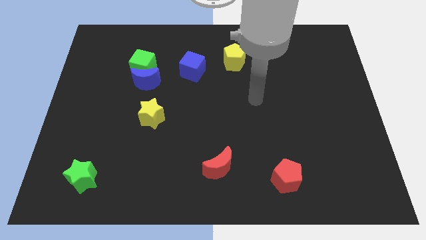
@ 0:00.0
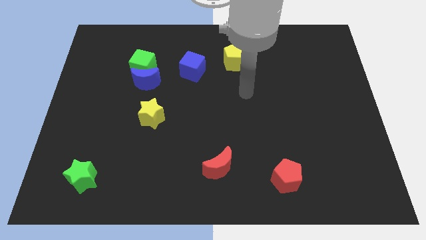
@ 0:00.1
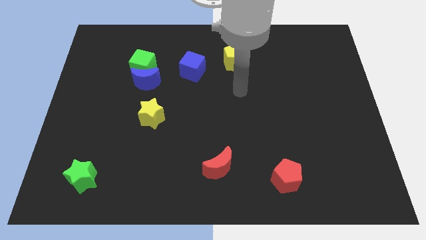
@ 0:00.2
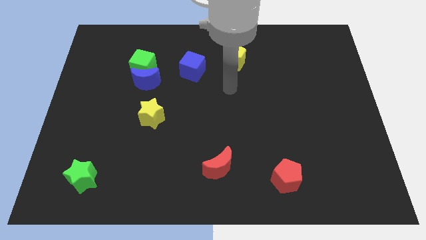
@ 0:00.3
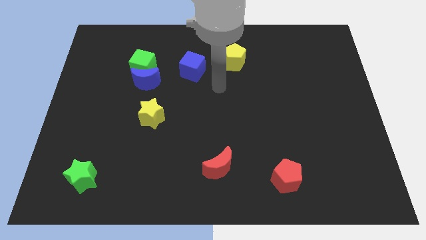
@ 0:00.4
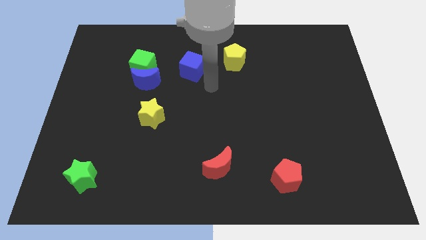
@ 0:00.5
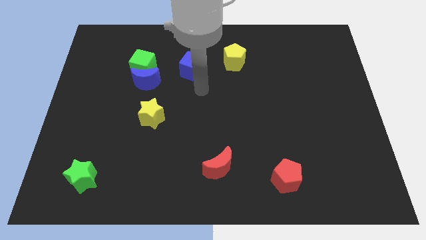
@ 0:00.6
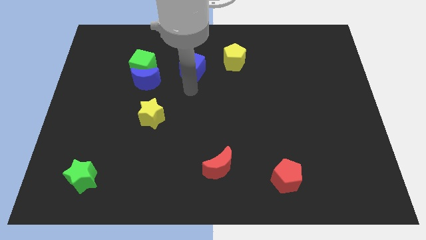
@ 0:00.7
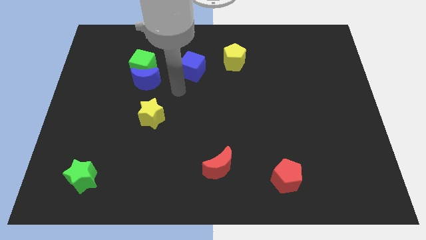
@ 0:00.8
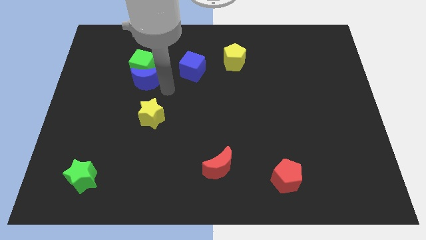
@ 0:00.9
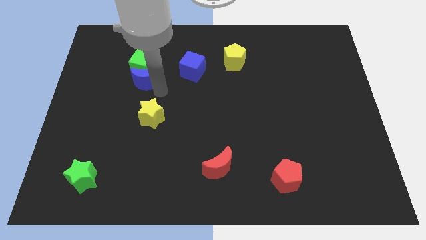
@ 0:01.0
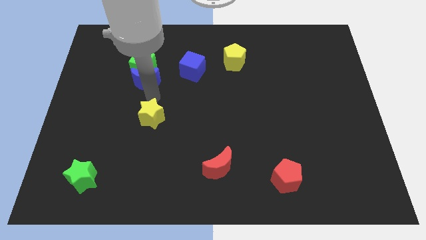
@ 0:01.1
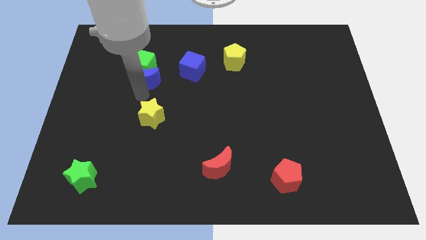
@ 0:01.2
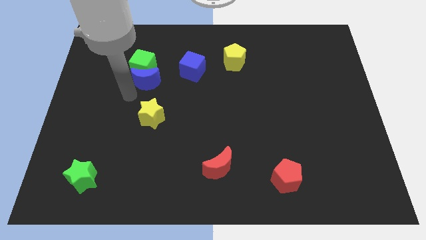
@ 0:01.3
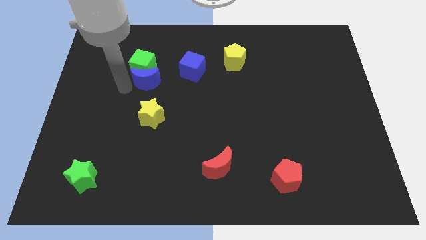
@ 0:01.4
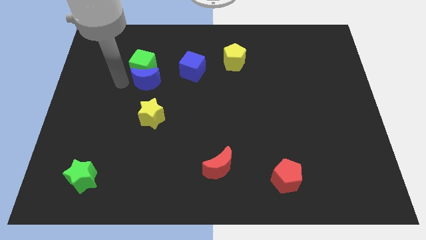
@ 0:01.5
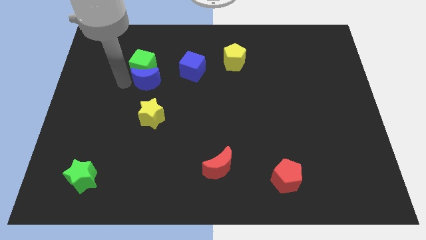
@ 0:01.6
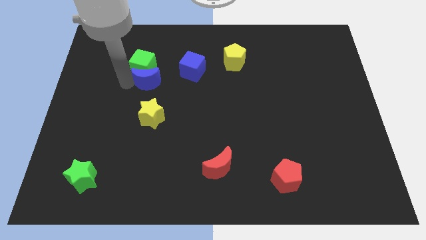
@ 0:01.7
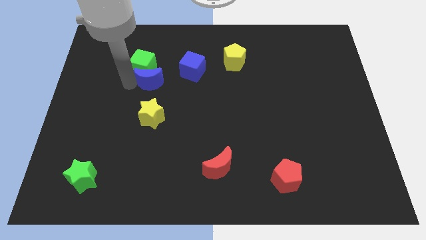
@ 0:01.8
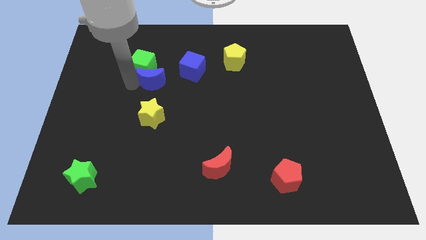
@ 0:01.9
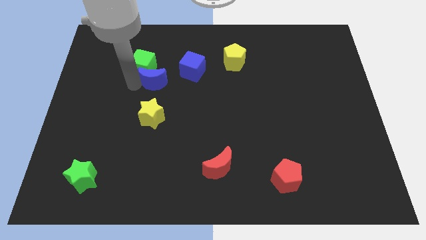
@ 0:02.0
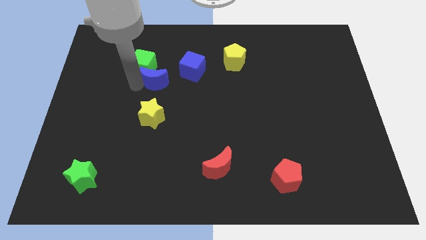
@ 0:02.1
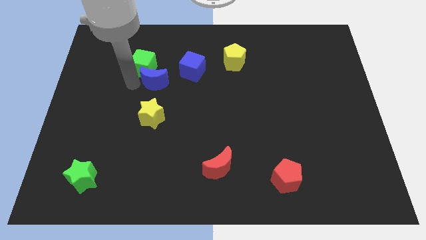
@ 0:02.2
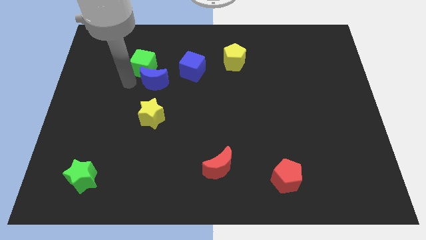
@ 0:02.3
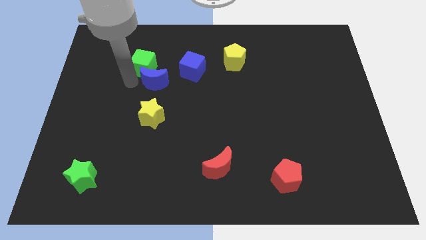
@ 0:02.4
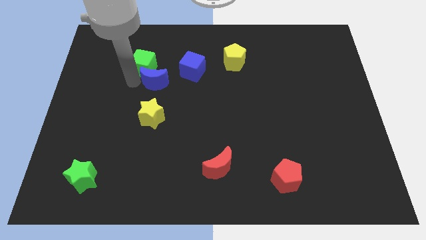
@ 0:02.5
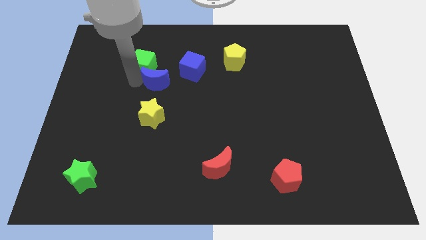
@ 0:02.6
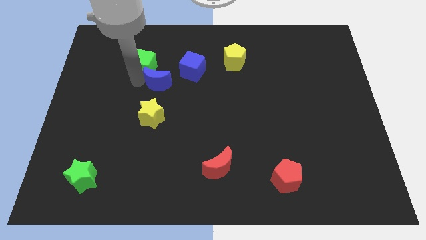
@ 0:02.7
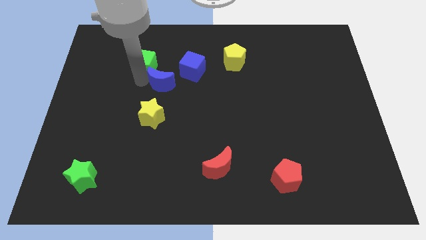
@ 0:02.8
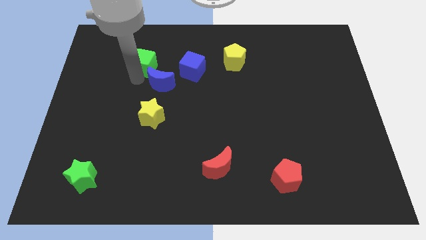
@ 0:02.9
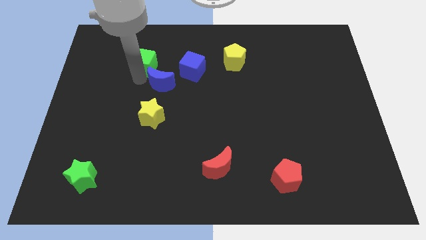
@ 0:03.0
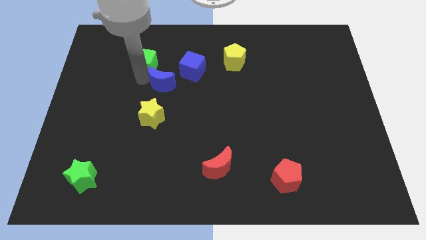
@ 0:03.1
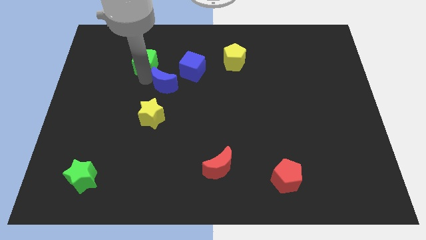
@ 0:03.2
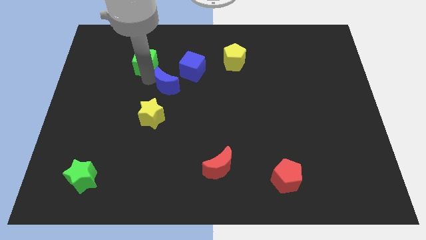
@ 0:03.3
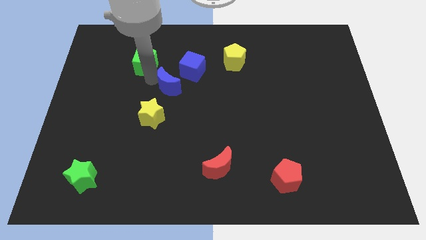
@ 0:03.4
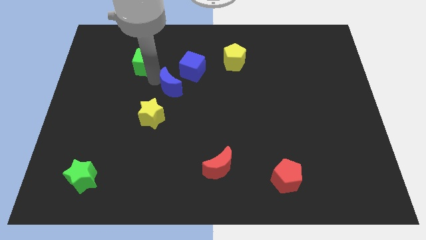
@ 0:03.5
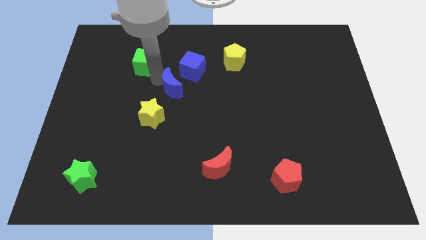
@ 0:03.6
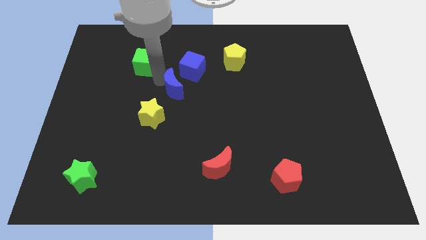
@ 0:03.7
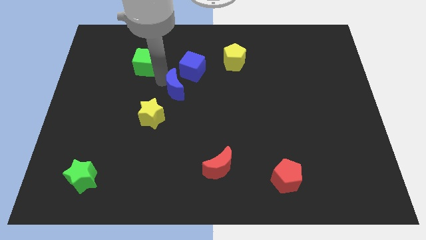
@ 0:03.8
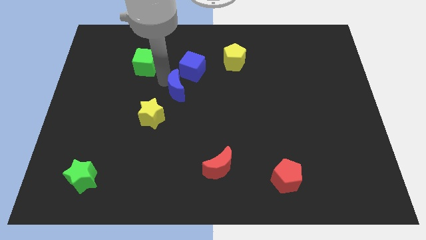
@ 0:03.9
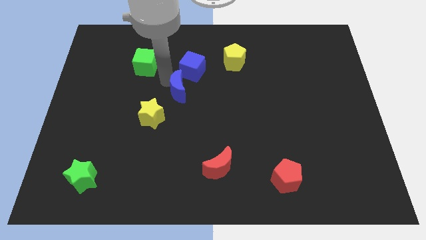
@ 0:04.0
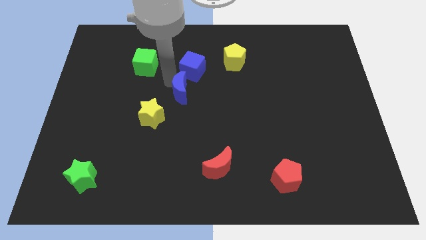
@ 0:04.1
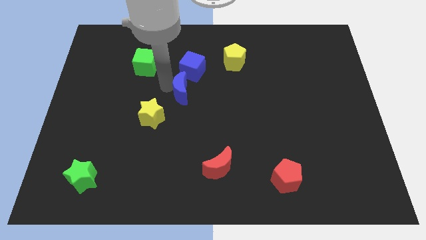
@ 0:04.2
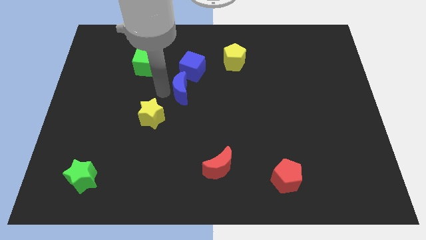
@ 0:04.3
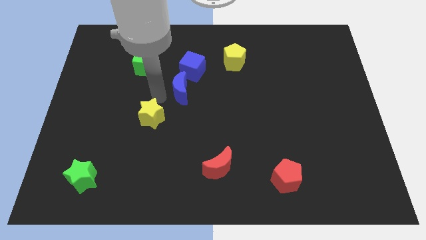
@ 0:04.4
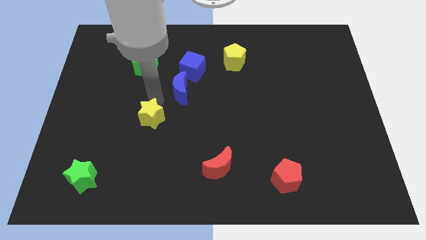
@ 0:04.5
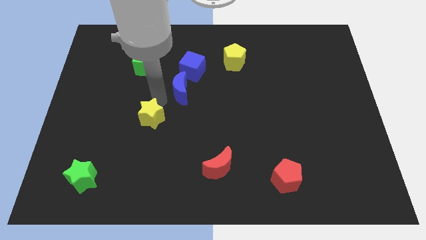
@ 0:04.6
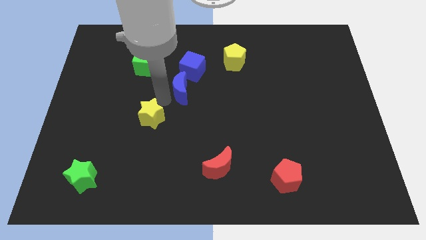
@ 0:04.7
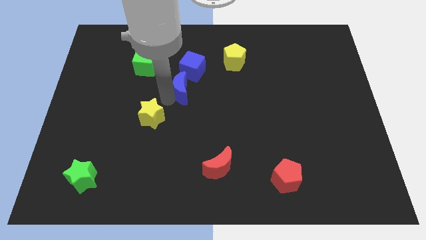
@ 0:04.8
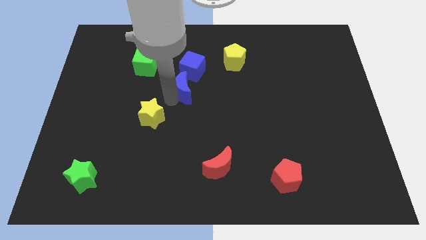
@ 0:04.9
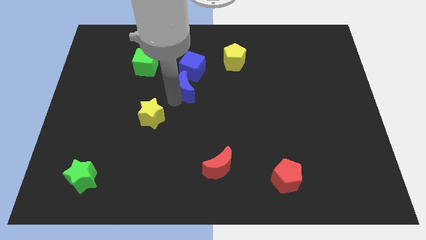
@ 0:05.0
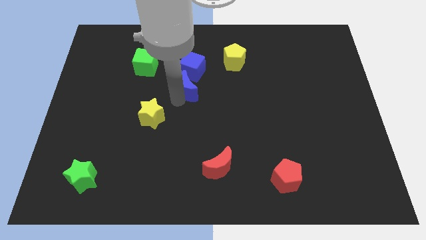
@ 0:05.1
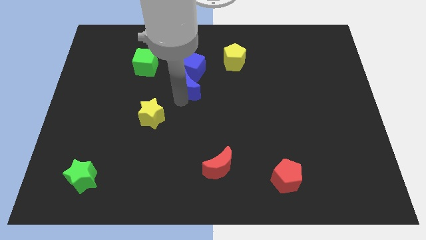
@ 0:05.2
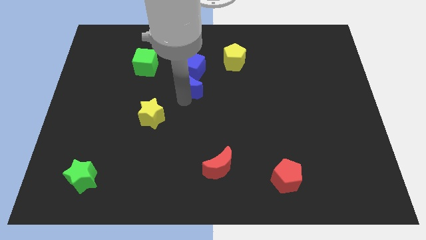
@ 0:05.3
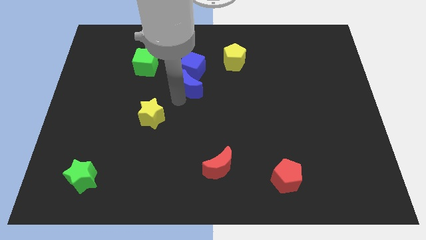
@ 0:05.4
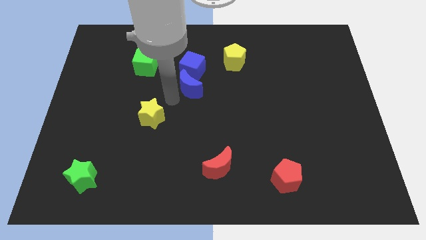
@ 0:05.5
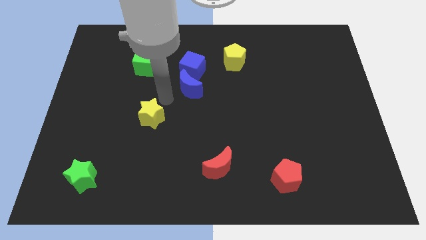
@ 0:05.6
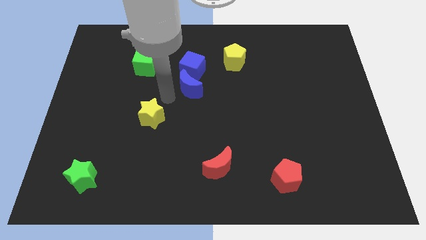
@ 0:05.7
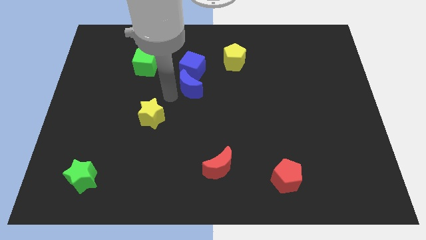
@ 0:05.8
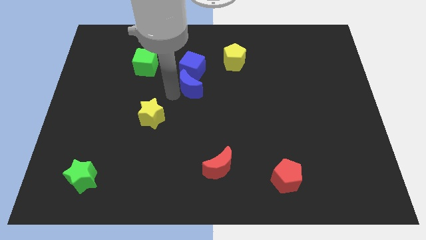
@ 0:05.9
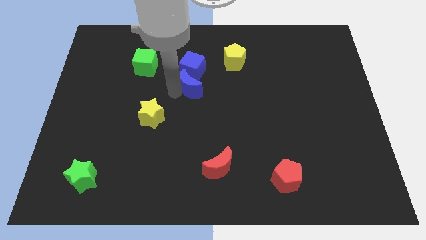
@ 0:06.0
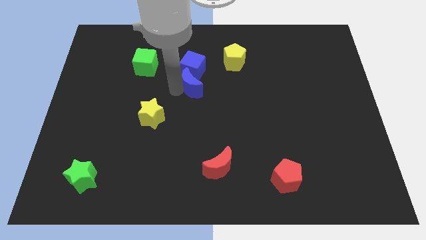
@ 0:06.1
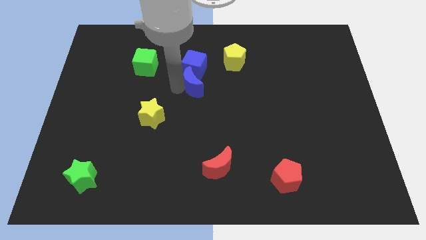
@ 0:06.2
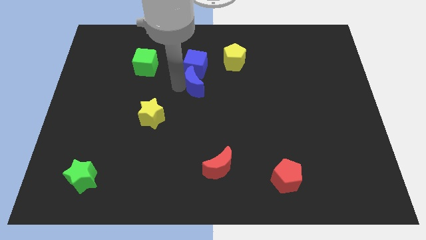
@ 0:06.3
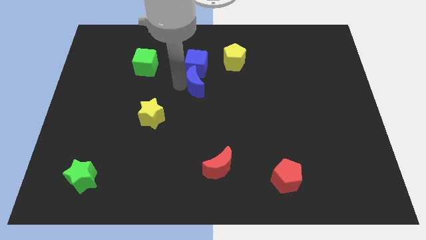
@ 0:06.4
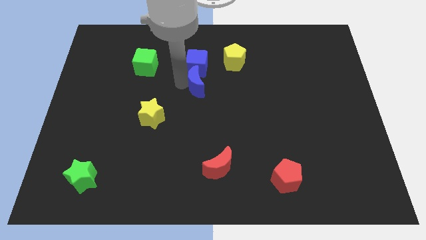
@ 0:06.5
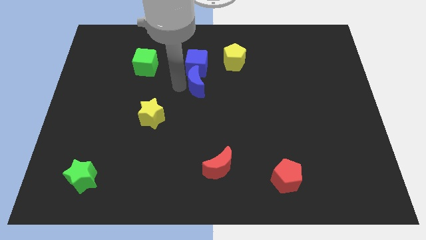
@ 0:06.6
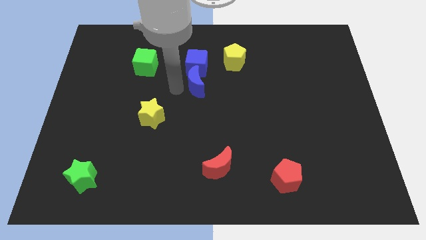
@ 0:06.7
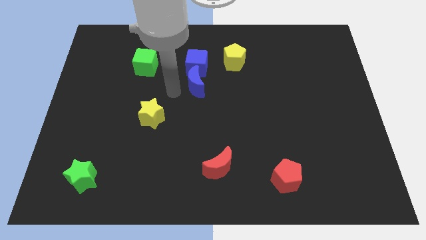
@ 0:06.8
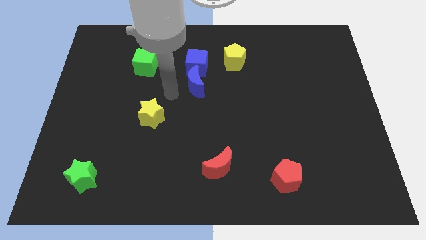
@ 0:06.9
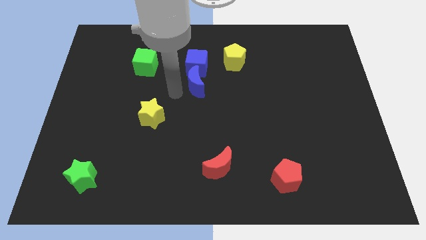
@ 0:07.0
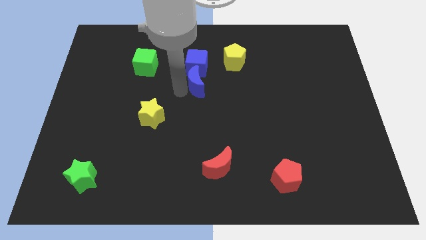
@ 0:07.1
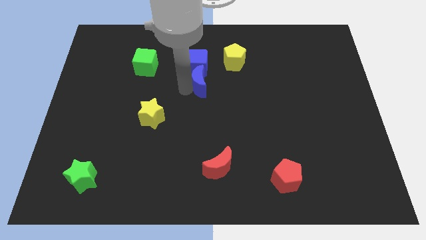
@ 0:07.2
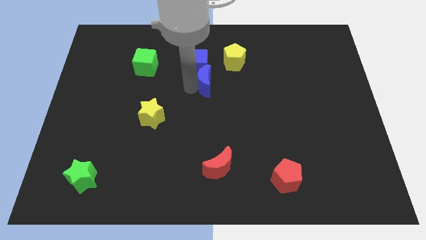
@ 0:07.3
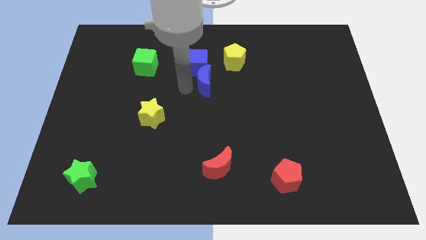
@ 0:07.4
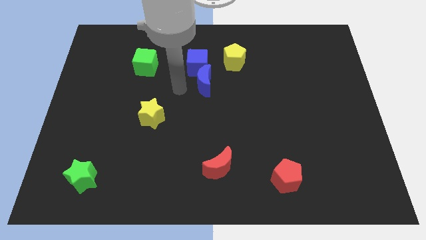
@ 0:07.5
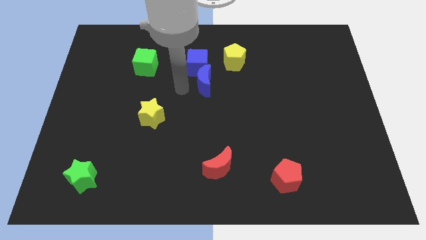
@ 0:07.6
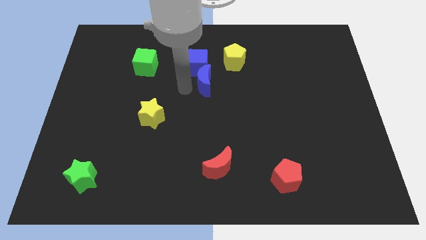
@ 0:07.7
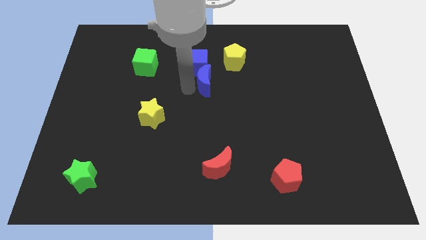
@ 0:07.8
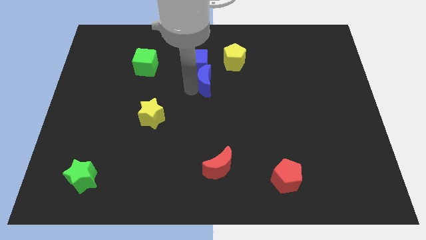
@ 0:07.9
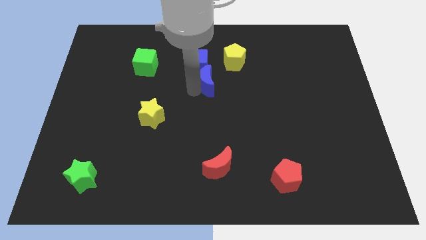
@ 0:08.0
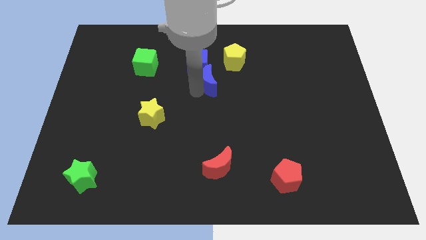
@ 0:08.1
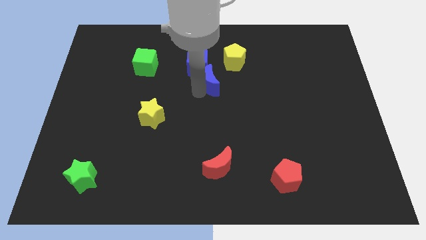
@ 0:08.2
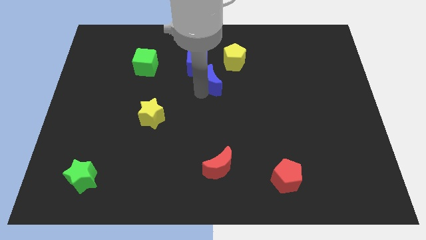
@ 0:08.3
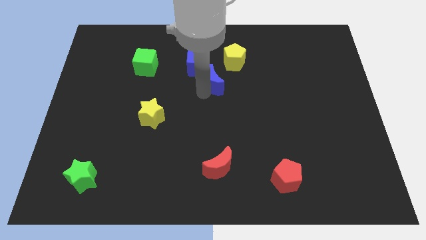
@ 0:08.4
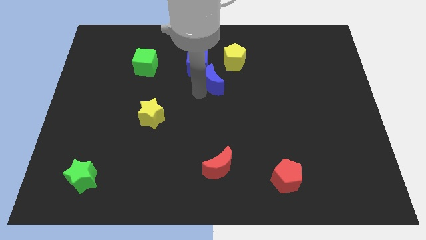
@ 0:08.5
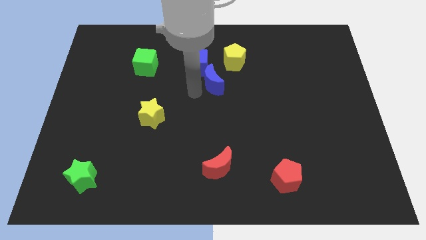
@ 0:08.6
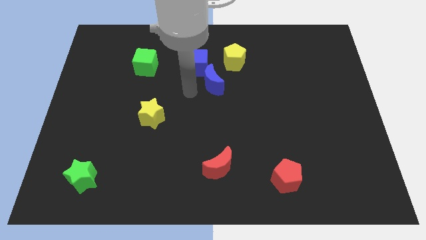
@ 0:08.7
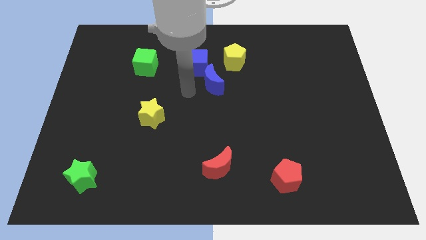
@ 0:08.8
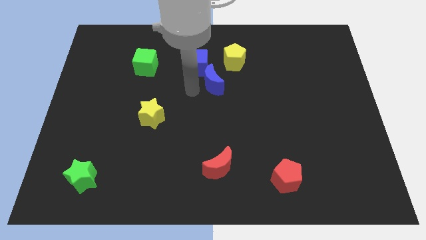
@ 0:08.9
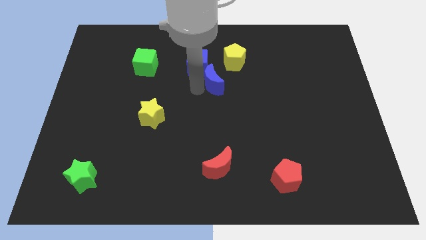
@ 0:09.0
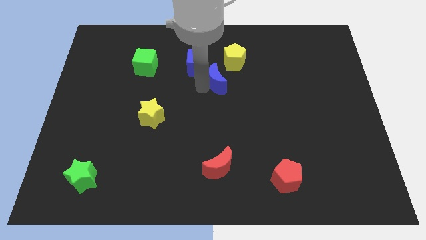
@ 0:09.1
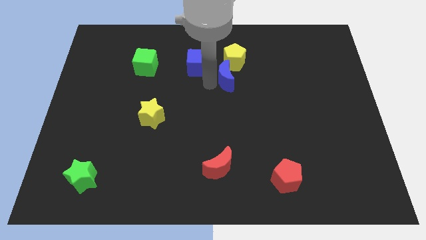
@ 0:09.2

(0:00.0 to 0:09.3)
slide the blue moon right
